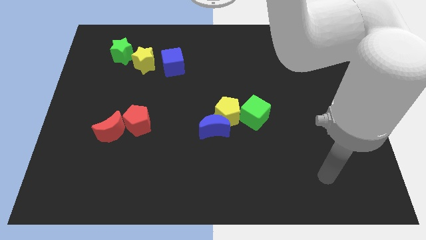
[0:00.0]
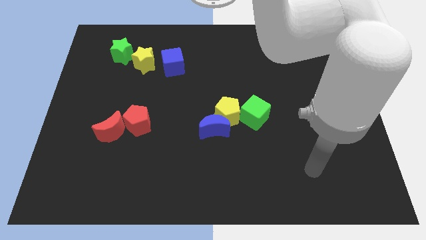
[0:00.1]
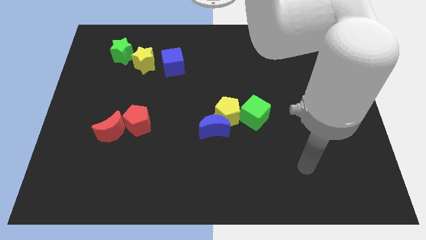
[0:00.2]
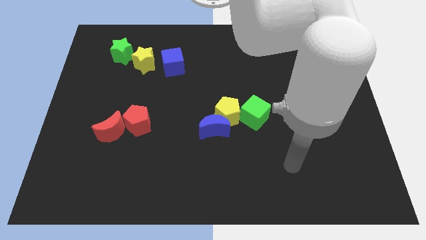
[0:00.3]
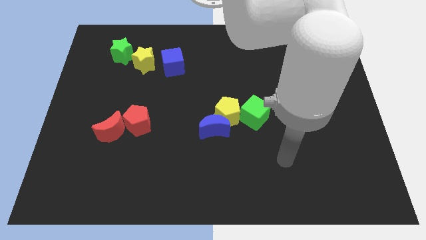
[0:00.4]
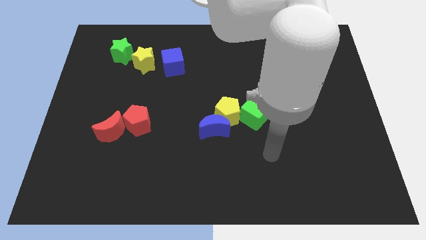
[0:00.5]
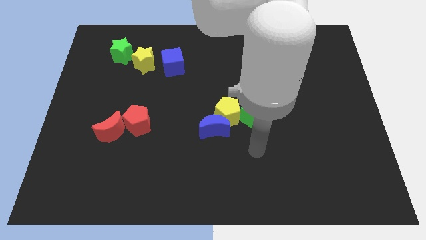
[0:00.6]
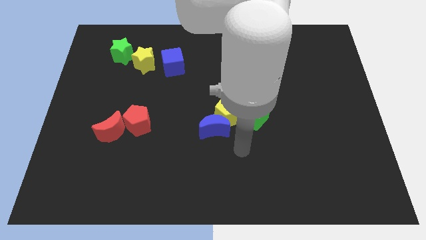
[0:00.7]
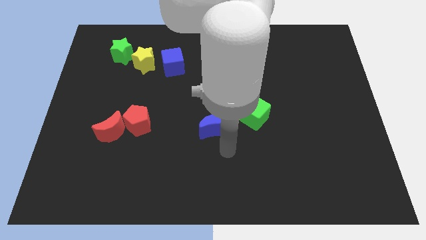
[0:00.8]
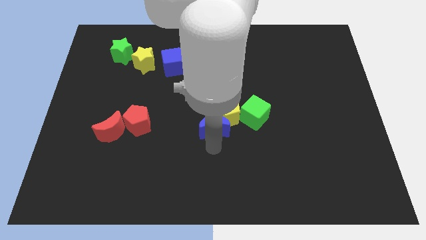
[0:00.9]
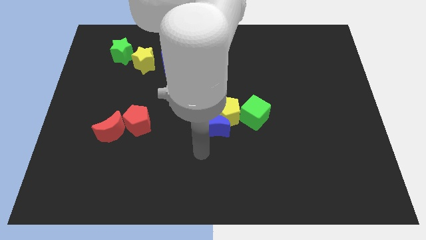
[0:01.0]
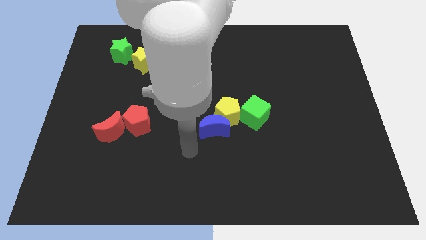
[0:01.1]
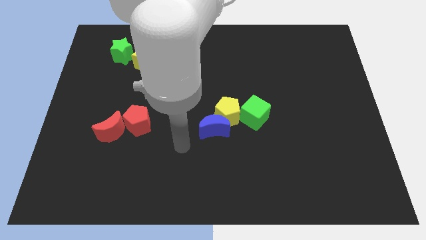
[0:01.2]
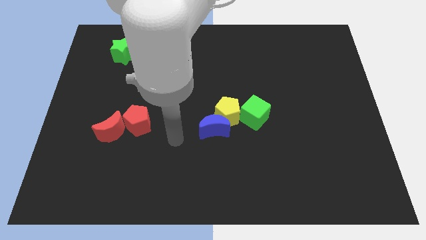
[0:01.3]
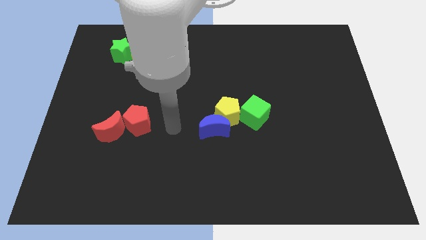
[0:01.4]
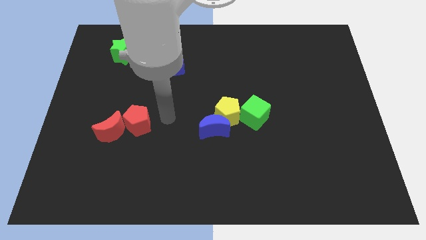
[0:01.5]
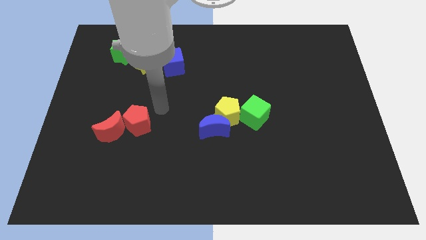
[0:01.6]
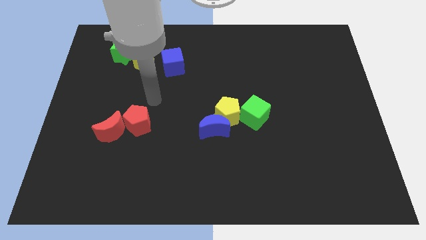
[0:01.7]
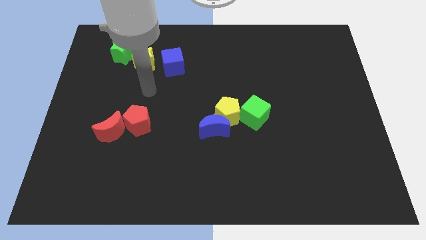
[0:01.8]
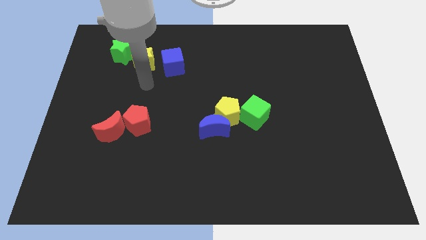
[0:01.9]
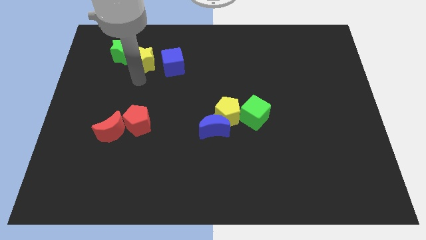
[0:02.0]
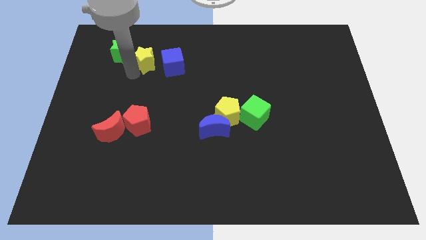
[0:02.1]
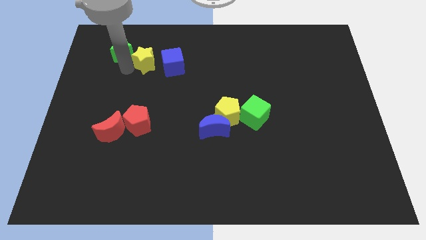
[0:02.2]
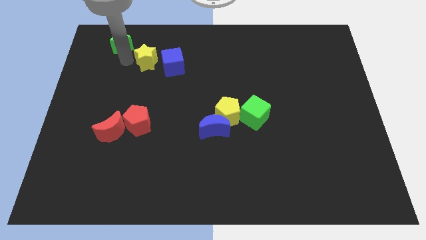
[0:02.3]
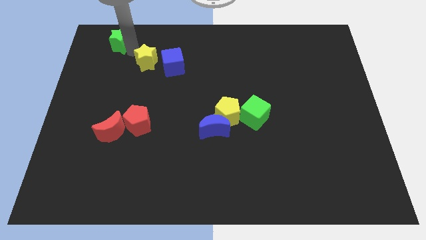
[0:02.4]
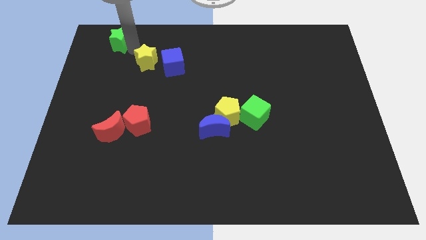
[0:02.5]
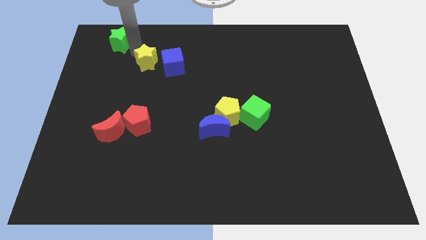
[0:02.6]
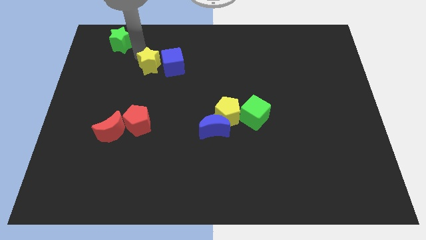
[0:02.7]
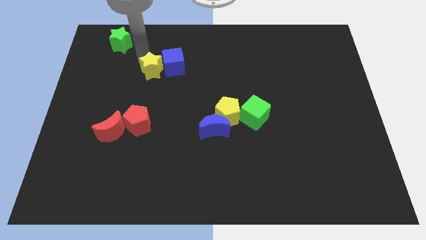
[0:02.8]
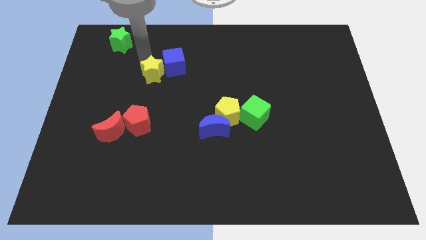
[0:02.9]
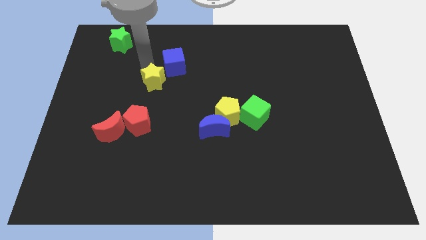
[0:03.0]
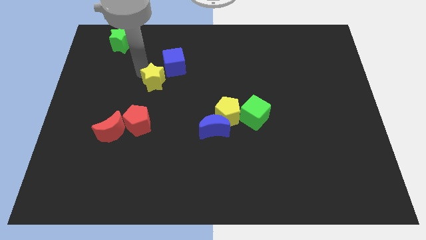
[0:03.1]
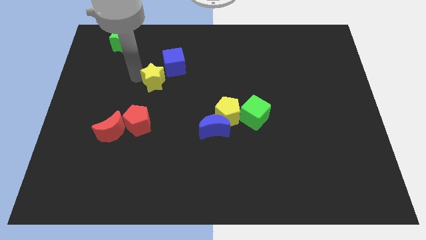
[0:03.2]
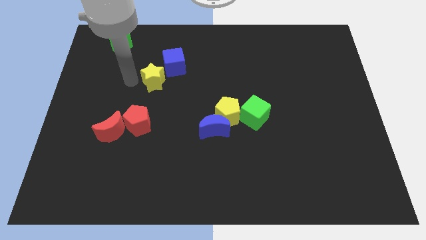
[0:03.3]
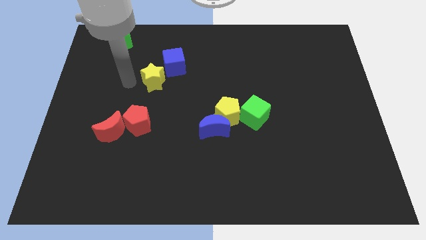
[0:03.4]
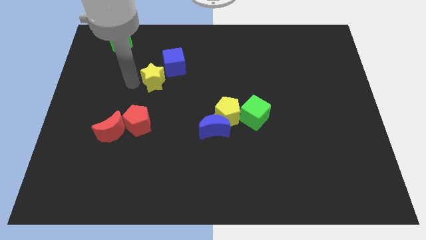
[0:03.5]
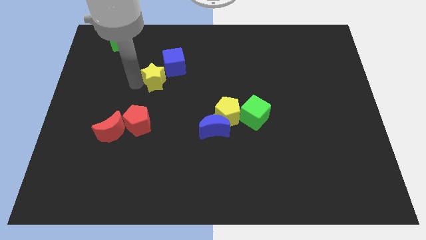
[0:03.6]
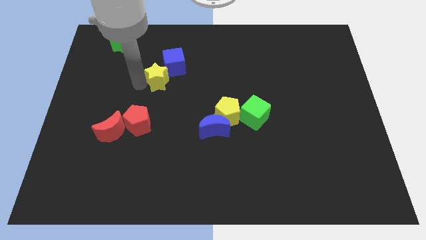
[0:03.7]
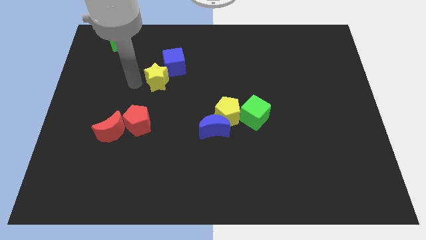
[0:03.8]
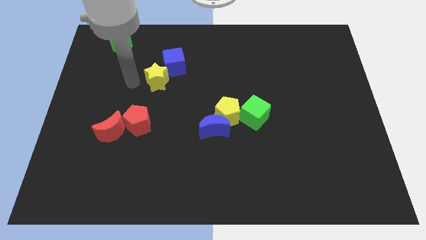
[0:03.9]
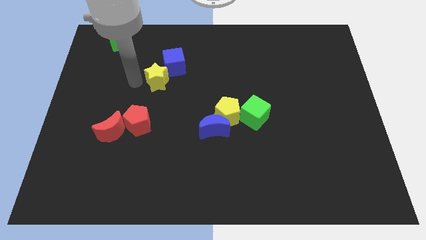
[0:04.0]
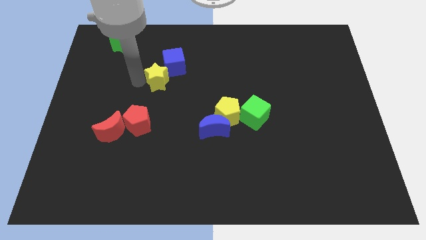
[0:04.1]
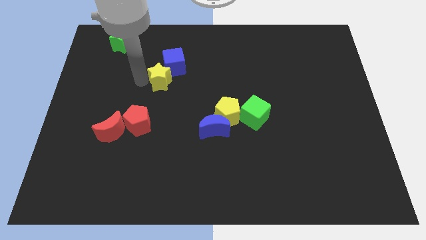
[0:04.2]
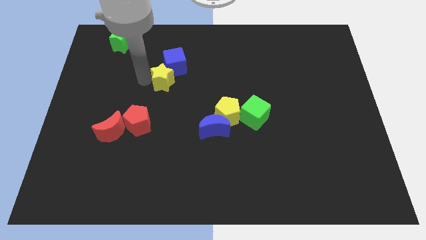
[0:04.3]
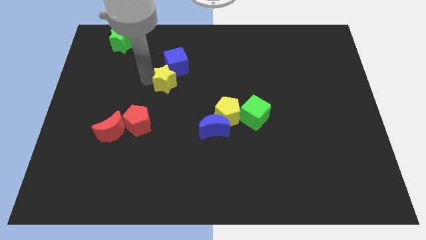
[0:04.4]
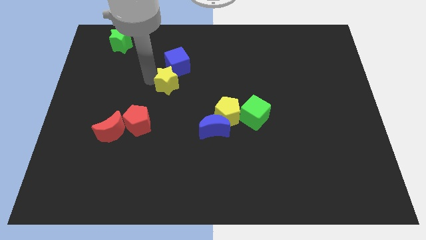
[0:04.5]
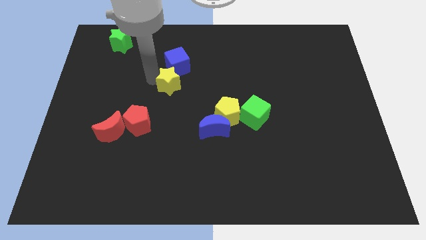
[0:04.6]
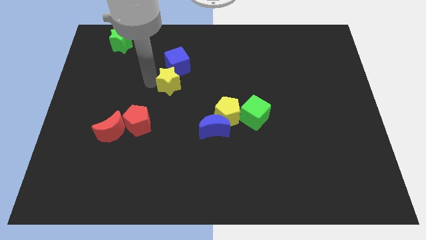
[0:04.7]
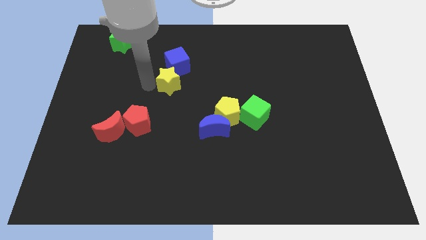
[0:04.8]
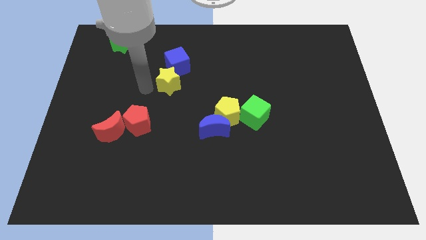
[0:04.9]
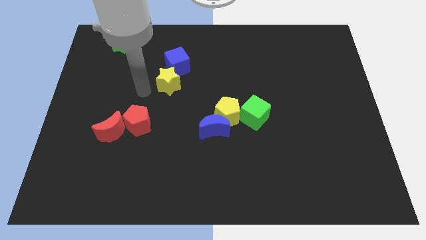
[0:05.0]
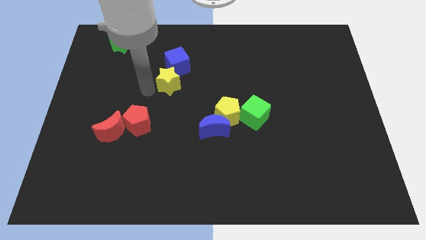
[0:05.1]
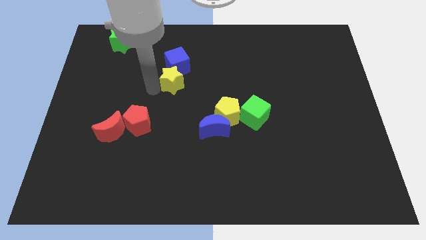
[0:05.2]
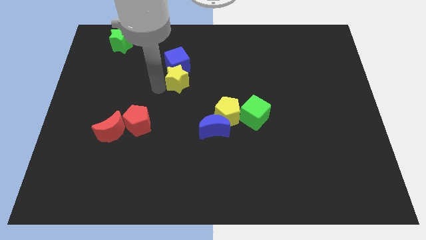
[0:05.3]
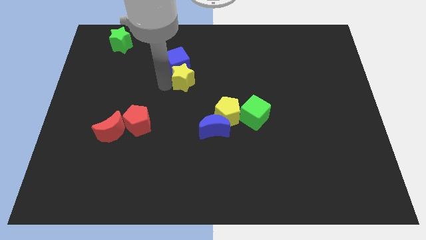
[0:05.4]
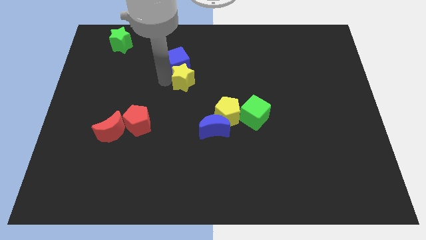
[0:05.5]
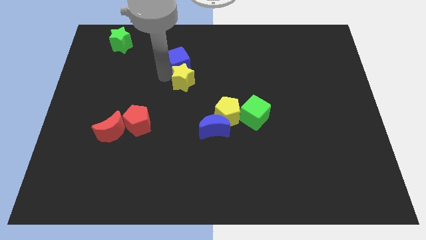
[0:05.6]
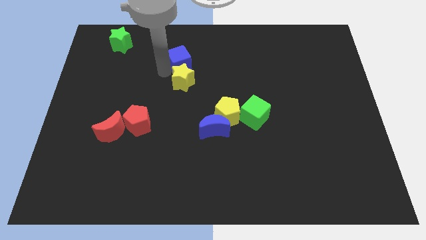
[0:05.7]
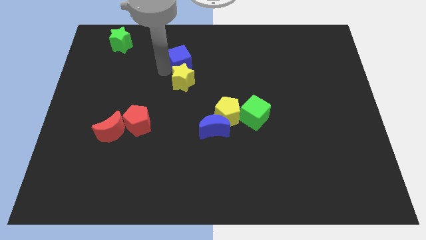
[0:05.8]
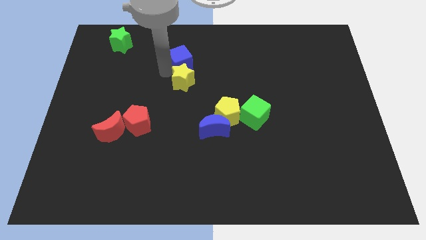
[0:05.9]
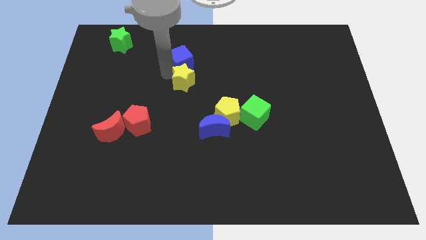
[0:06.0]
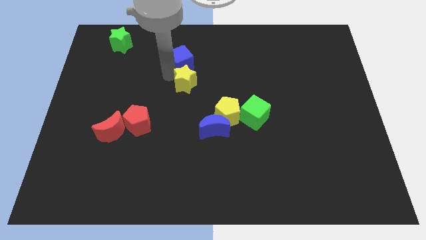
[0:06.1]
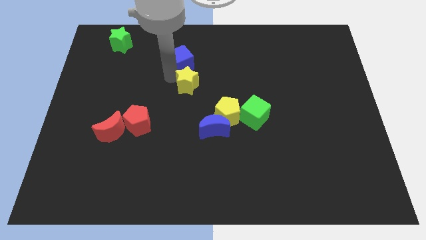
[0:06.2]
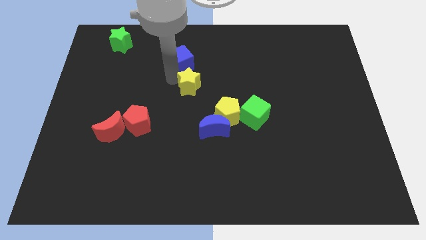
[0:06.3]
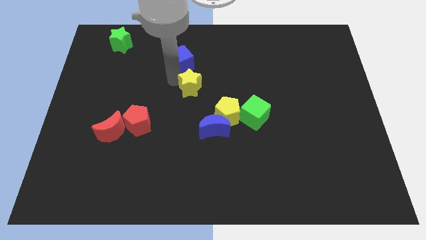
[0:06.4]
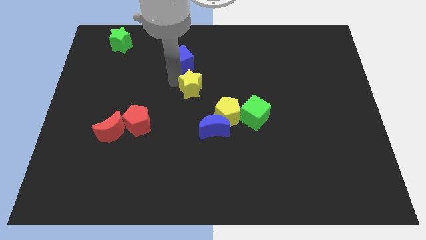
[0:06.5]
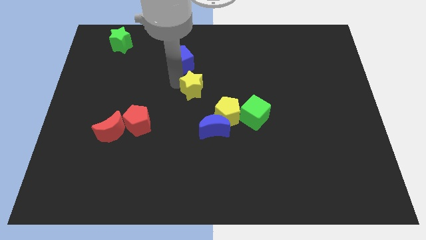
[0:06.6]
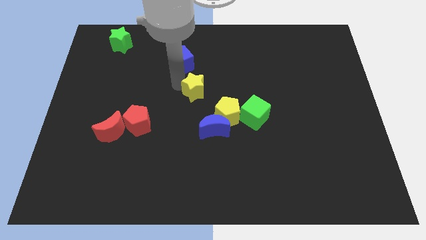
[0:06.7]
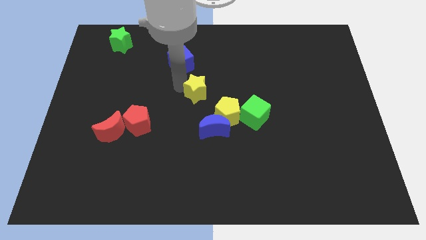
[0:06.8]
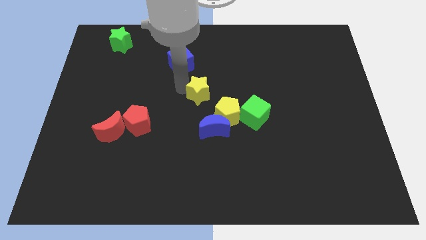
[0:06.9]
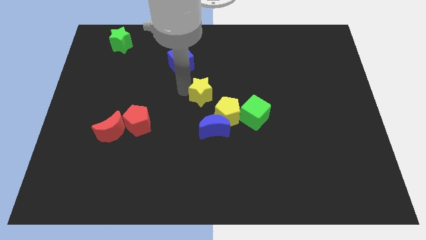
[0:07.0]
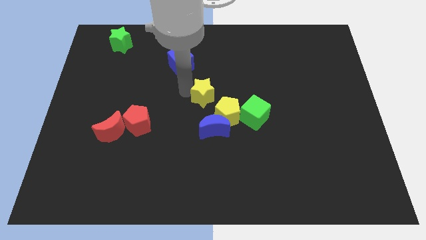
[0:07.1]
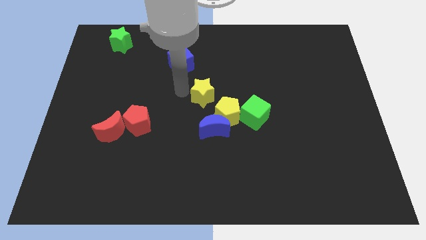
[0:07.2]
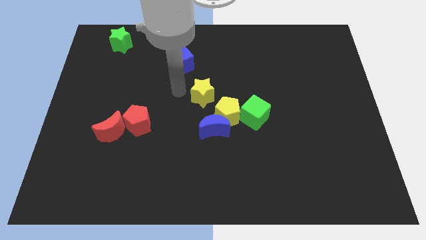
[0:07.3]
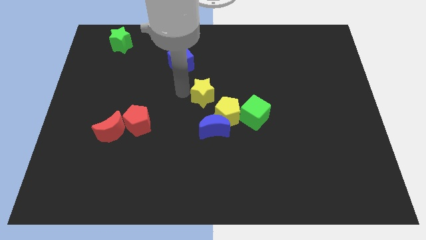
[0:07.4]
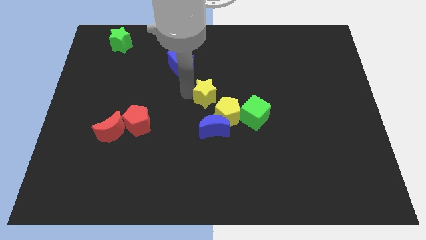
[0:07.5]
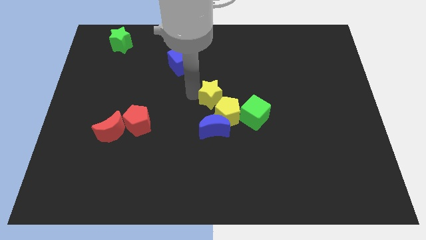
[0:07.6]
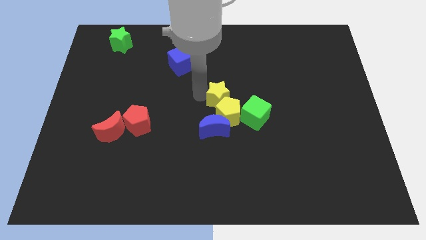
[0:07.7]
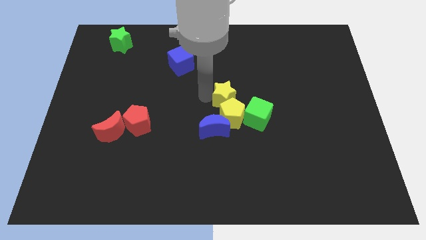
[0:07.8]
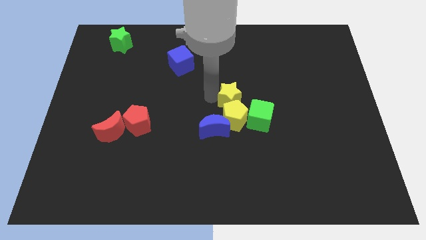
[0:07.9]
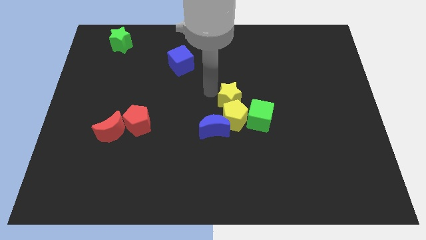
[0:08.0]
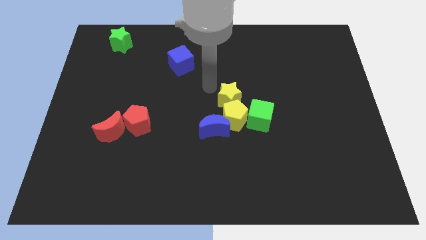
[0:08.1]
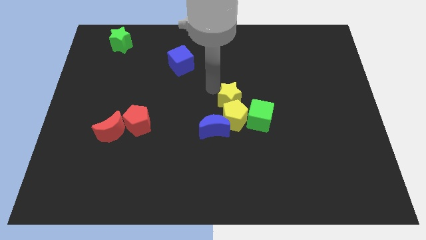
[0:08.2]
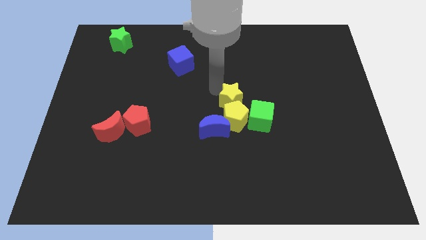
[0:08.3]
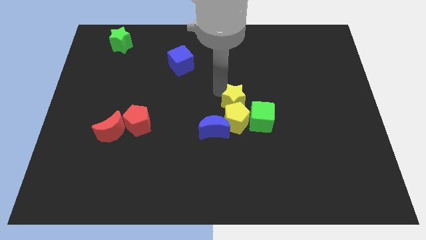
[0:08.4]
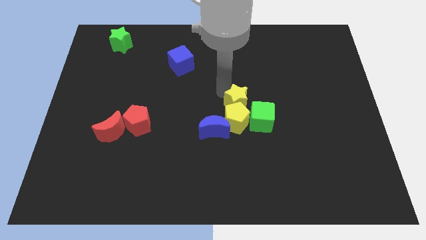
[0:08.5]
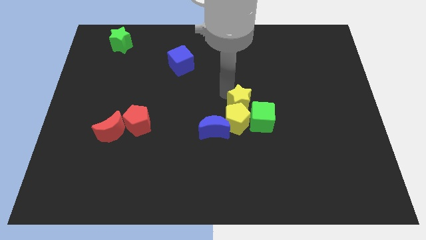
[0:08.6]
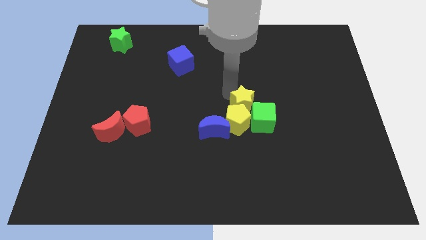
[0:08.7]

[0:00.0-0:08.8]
push the yellow star to the green cube
